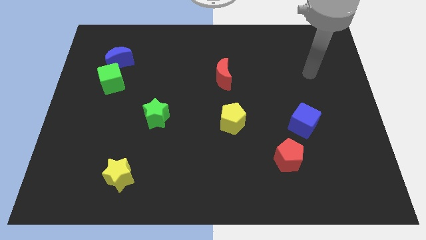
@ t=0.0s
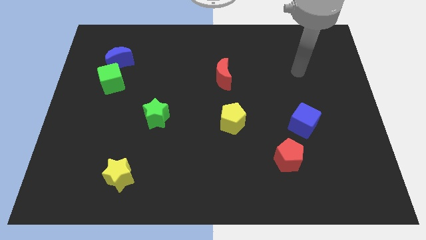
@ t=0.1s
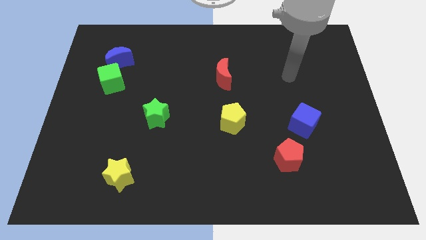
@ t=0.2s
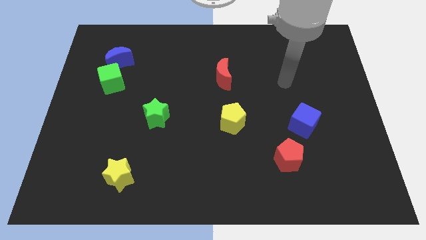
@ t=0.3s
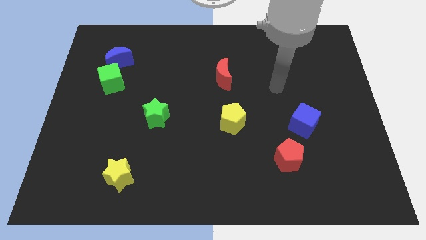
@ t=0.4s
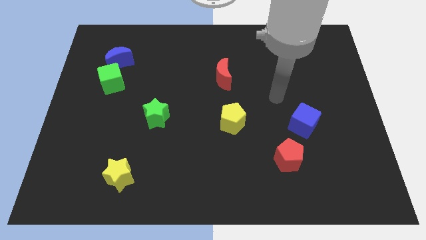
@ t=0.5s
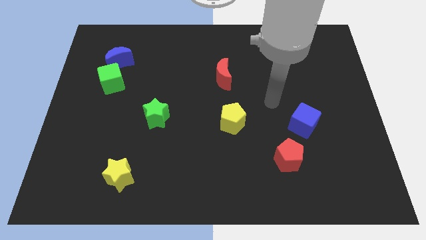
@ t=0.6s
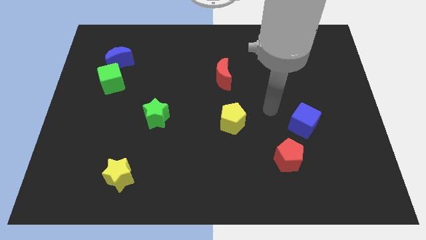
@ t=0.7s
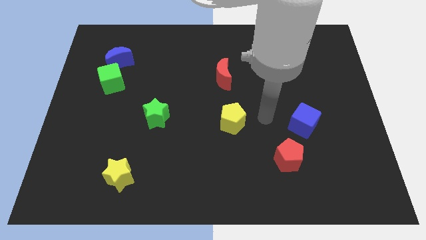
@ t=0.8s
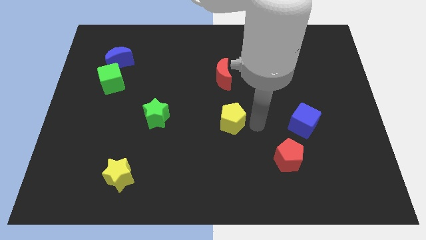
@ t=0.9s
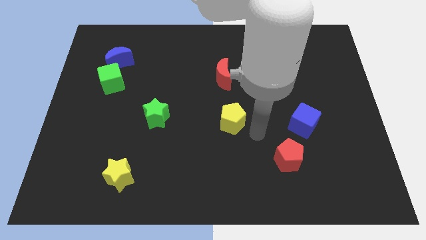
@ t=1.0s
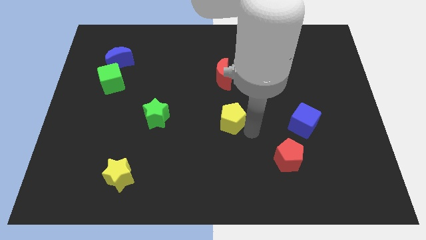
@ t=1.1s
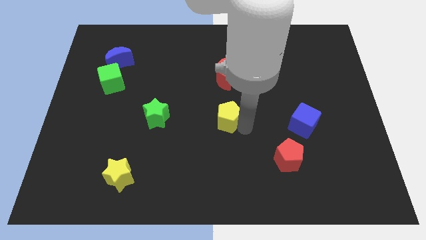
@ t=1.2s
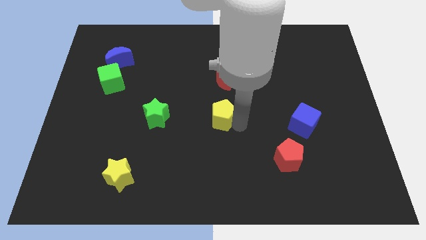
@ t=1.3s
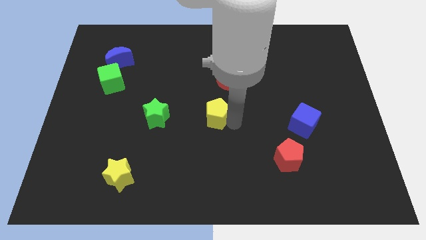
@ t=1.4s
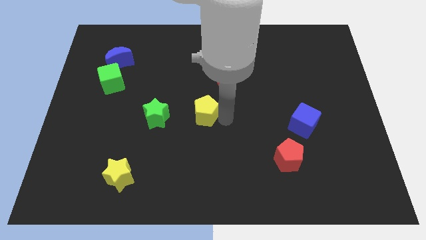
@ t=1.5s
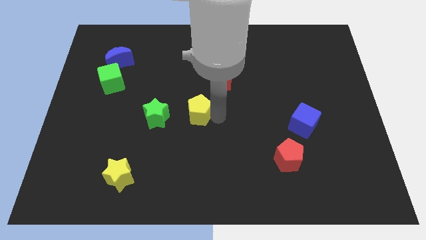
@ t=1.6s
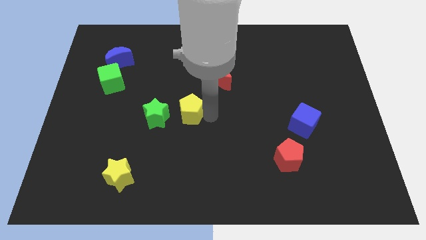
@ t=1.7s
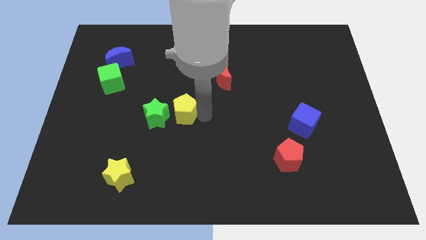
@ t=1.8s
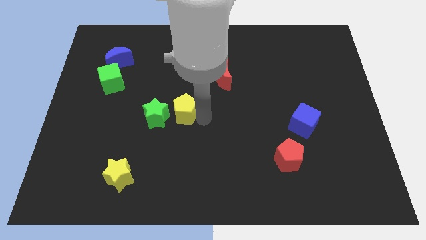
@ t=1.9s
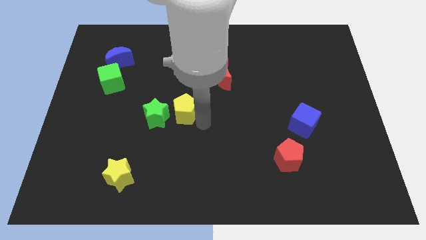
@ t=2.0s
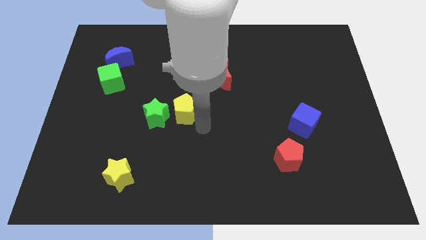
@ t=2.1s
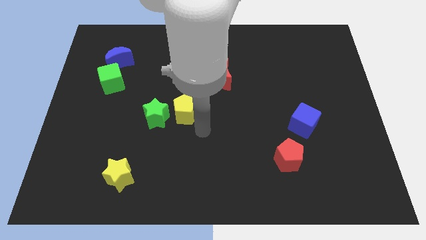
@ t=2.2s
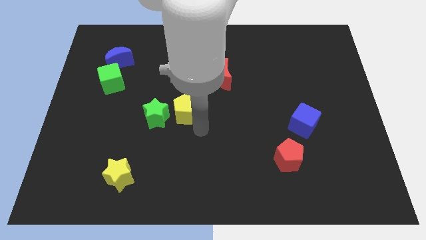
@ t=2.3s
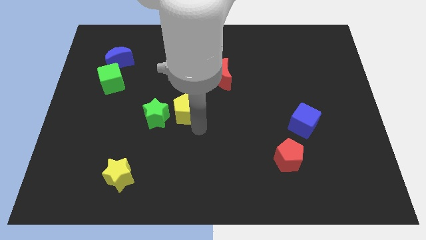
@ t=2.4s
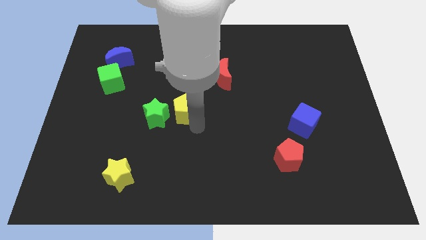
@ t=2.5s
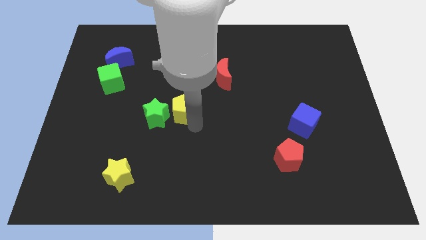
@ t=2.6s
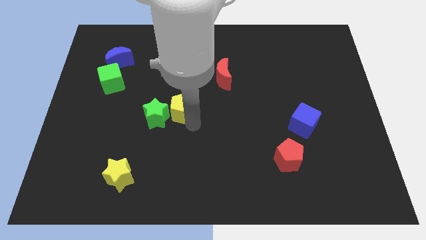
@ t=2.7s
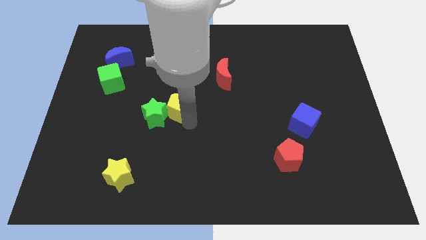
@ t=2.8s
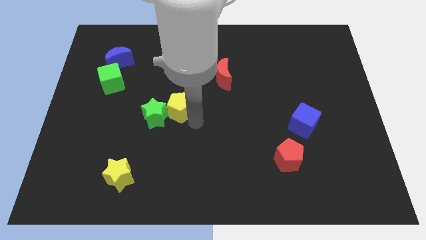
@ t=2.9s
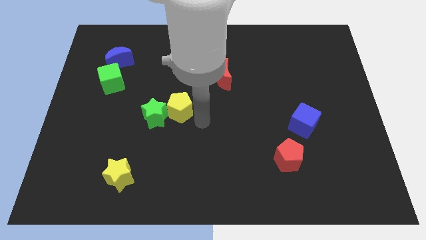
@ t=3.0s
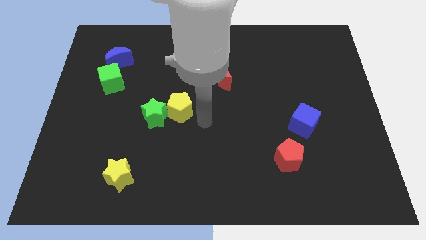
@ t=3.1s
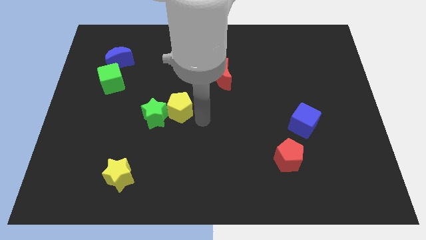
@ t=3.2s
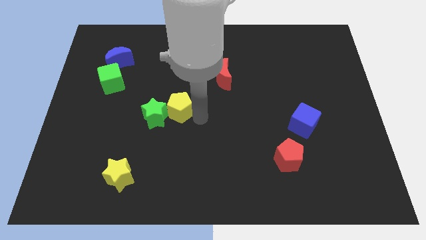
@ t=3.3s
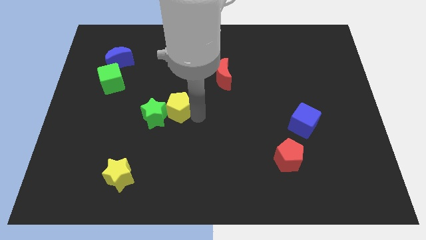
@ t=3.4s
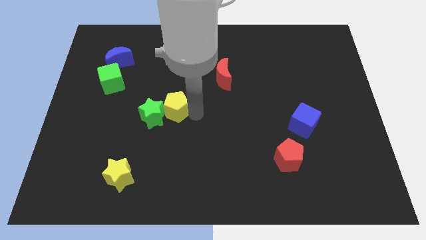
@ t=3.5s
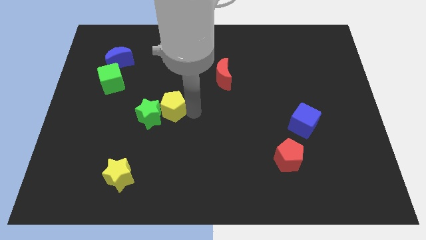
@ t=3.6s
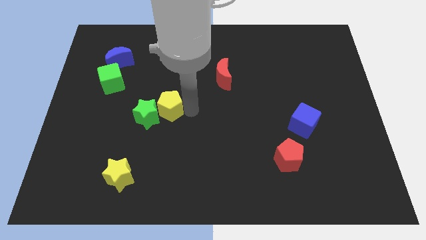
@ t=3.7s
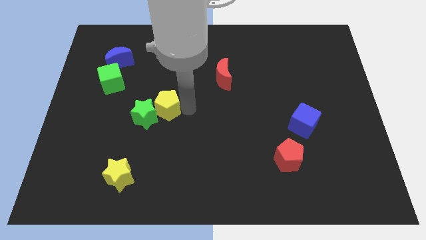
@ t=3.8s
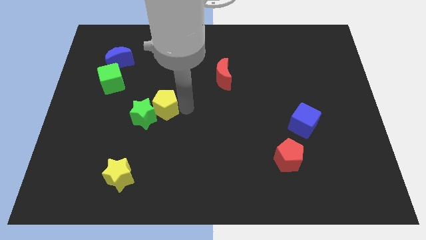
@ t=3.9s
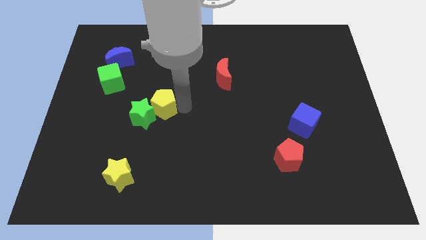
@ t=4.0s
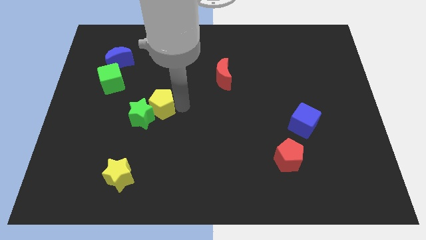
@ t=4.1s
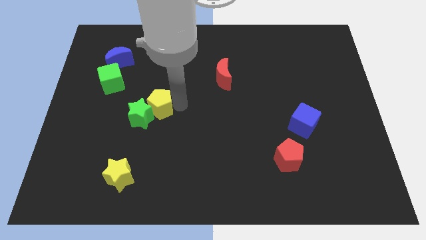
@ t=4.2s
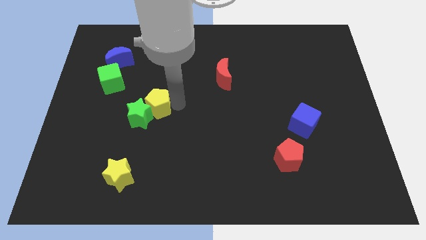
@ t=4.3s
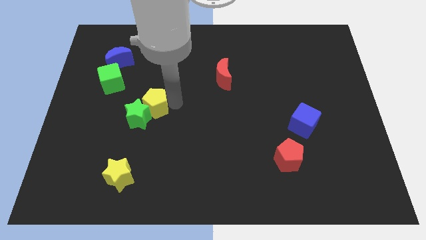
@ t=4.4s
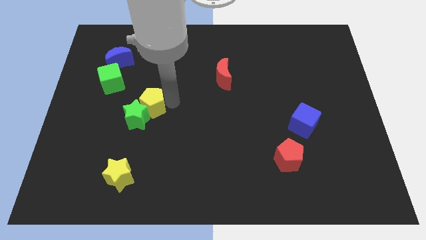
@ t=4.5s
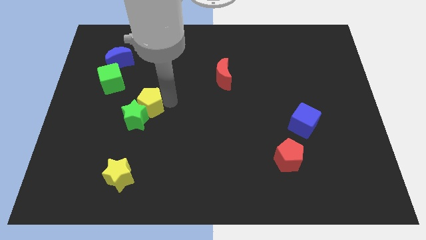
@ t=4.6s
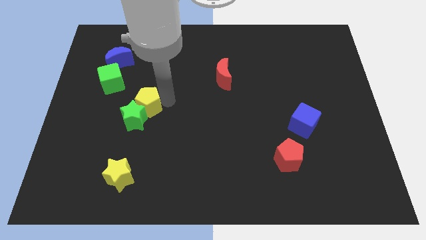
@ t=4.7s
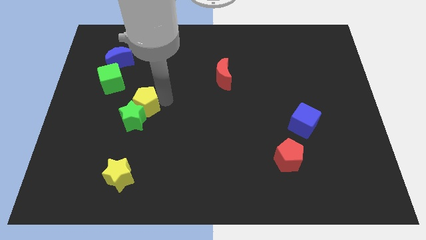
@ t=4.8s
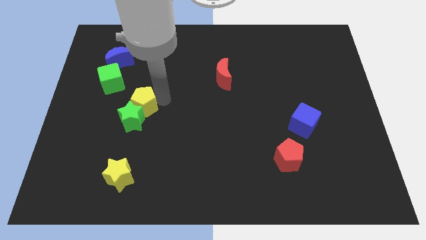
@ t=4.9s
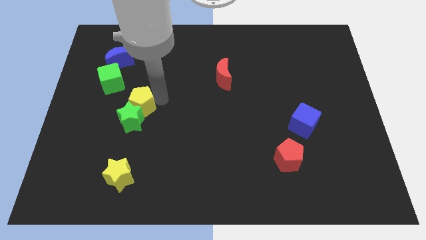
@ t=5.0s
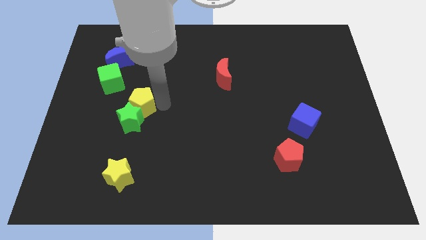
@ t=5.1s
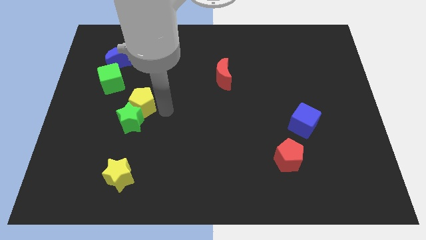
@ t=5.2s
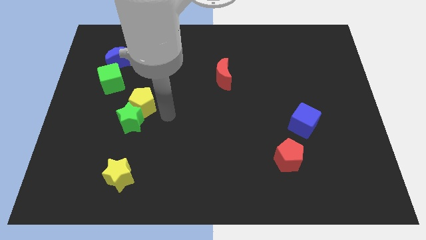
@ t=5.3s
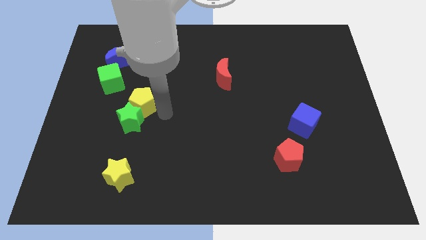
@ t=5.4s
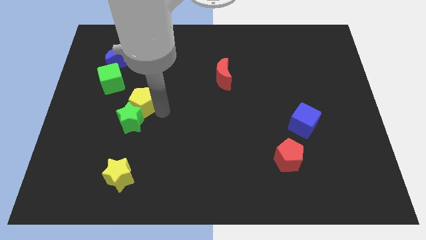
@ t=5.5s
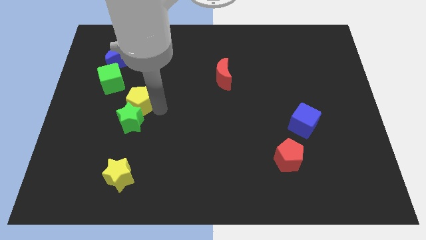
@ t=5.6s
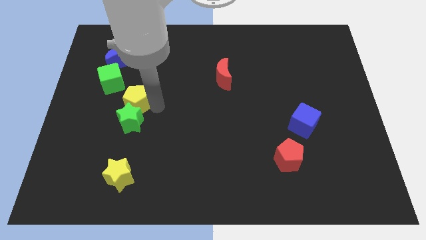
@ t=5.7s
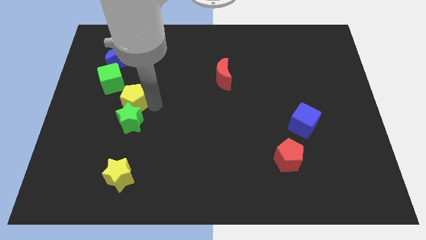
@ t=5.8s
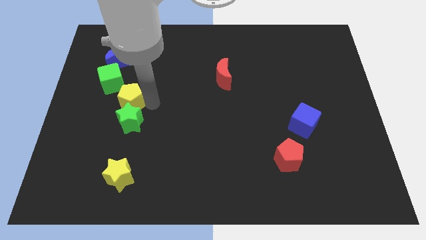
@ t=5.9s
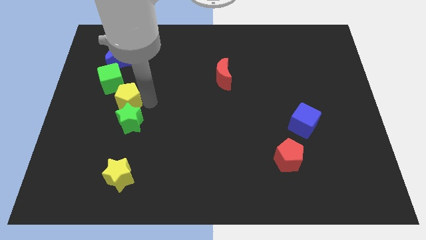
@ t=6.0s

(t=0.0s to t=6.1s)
put the yellow pentagon to the bottom side of the blue moon
